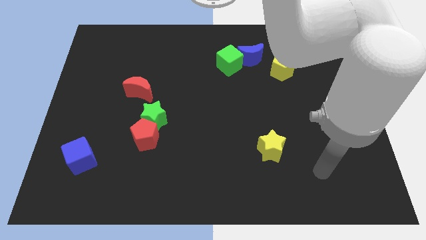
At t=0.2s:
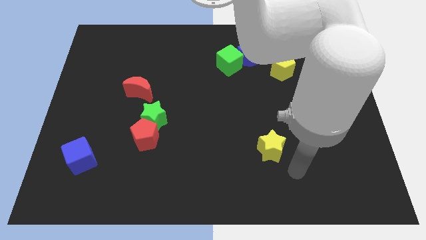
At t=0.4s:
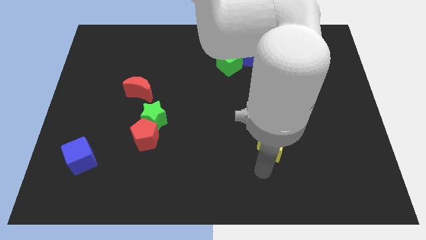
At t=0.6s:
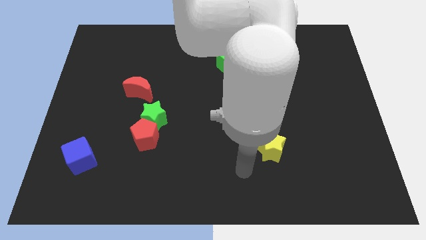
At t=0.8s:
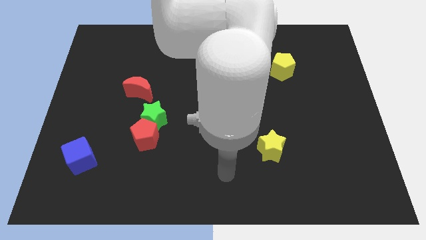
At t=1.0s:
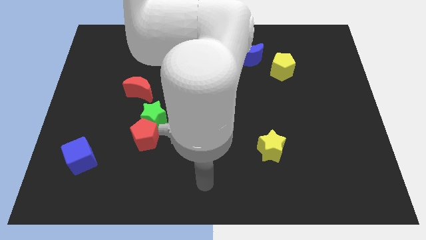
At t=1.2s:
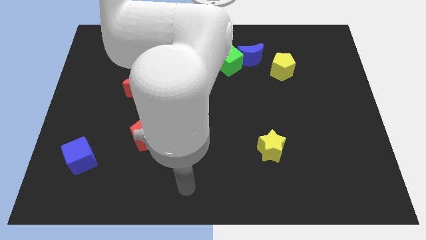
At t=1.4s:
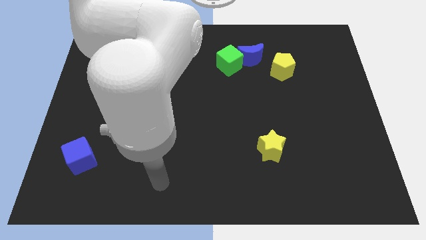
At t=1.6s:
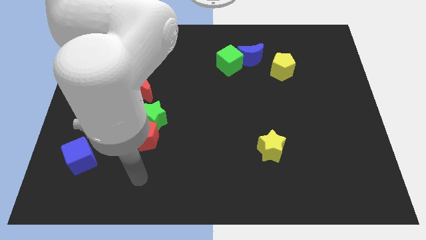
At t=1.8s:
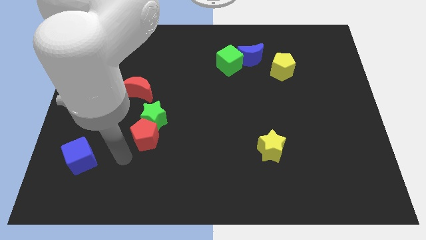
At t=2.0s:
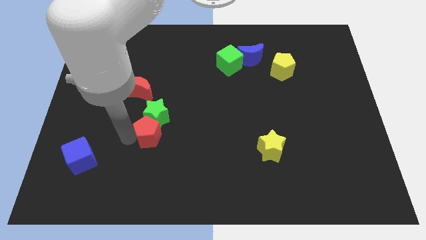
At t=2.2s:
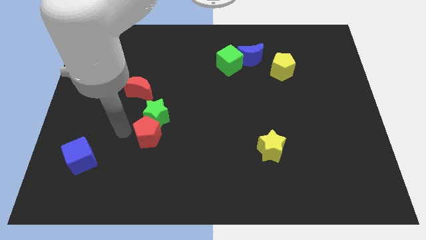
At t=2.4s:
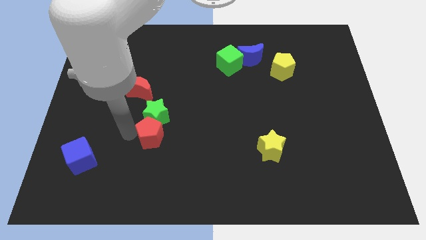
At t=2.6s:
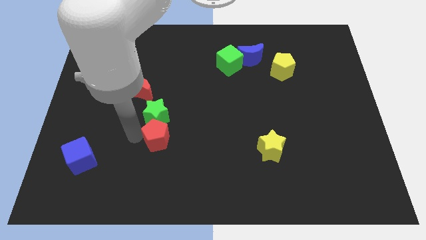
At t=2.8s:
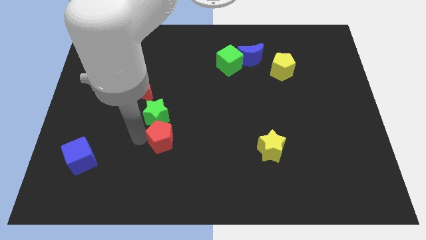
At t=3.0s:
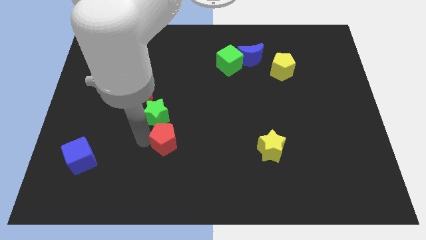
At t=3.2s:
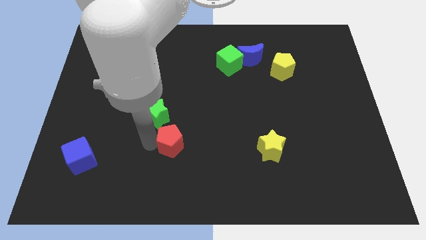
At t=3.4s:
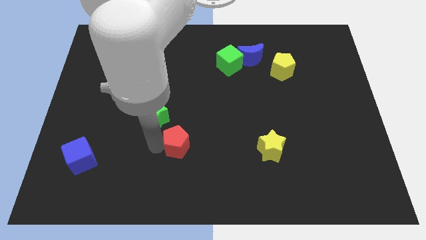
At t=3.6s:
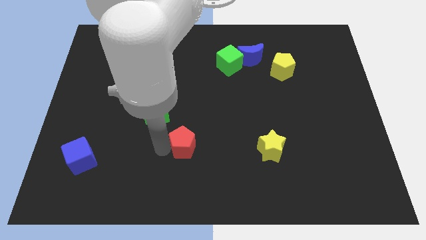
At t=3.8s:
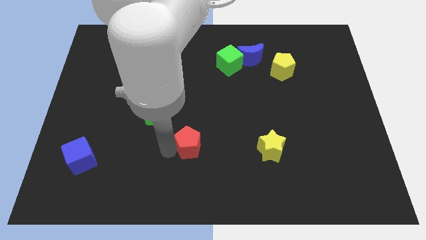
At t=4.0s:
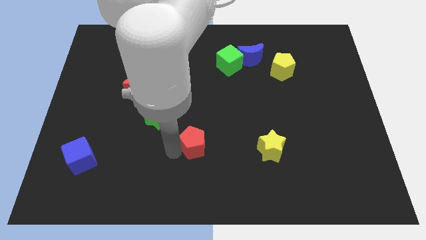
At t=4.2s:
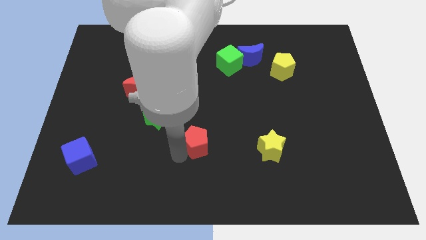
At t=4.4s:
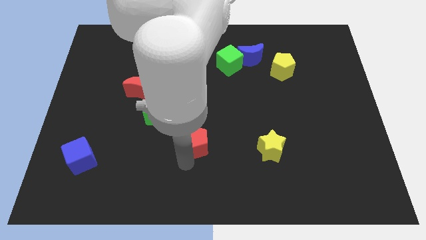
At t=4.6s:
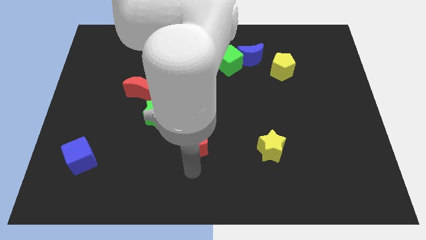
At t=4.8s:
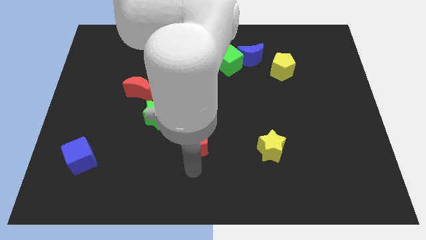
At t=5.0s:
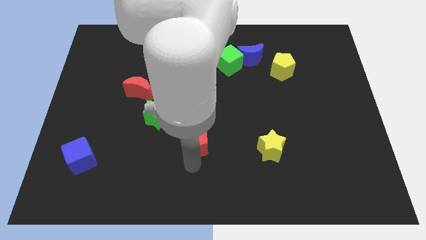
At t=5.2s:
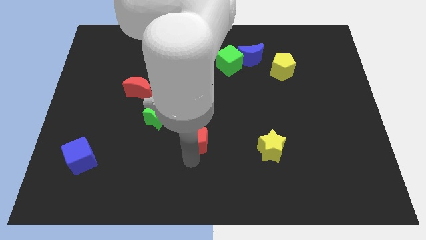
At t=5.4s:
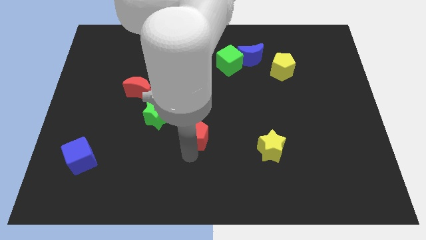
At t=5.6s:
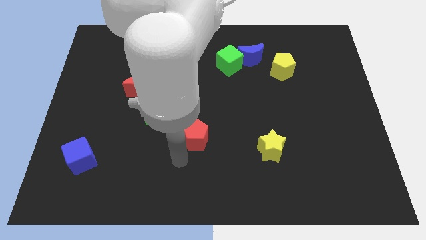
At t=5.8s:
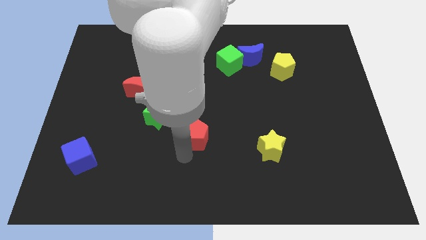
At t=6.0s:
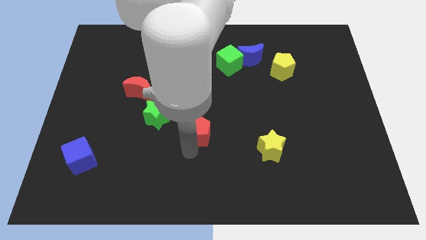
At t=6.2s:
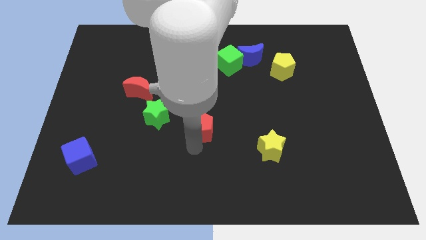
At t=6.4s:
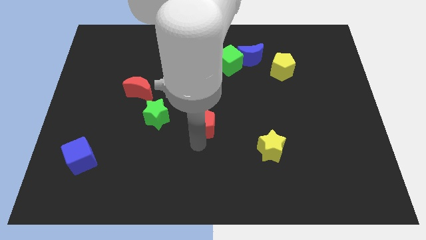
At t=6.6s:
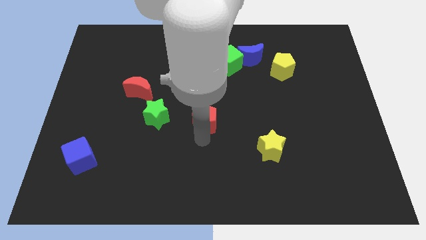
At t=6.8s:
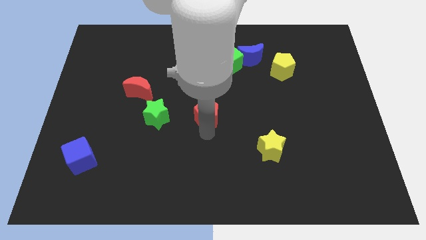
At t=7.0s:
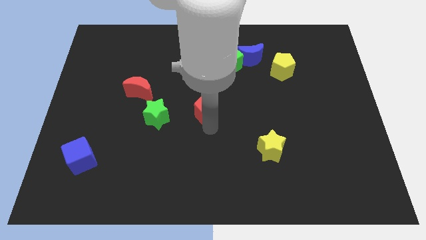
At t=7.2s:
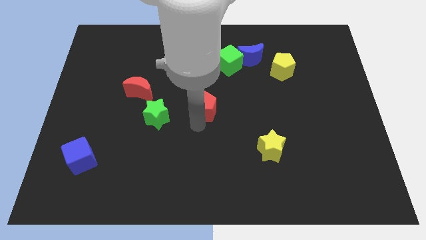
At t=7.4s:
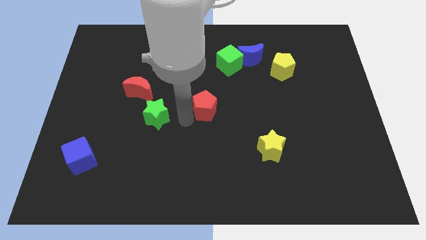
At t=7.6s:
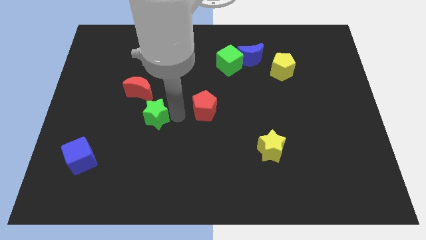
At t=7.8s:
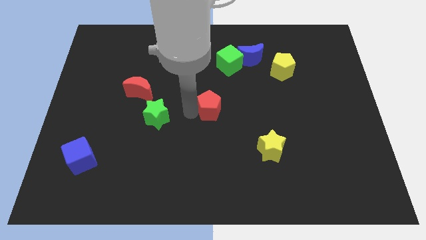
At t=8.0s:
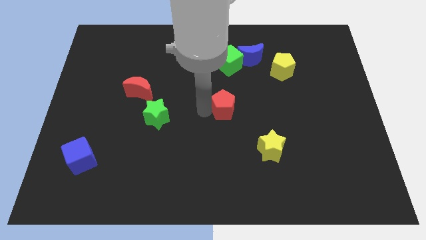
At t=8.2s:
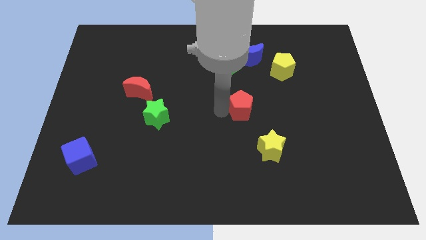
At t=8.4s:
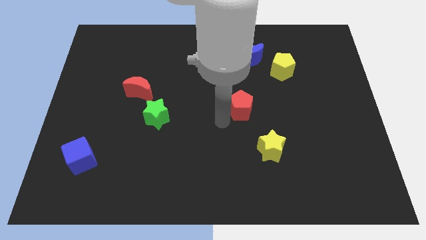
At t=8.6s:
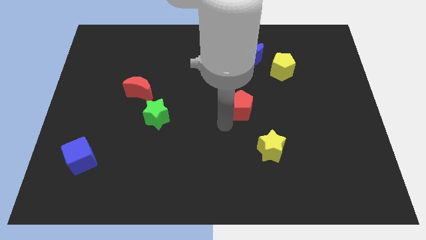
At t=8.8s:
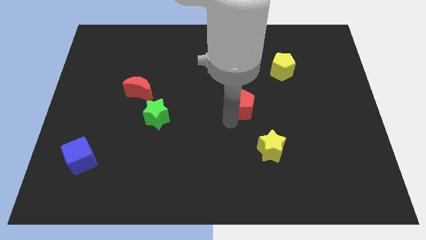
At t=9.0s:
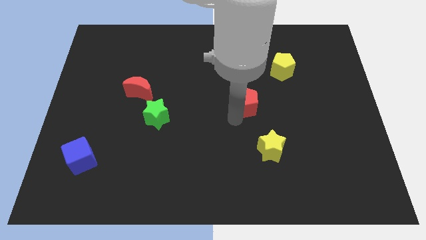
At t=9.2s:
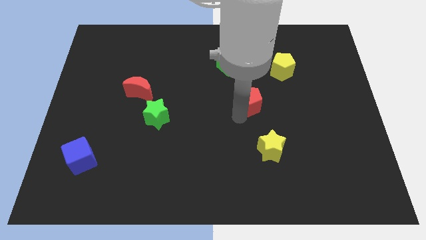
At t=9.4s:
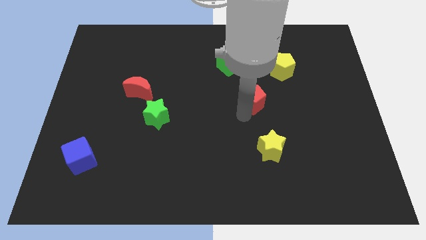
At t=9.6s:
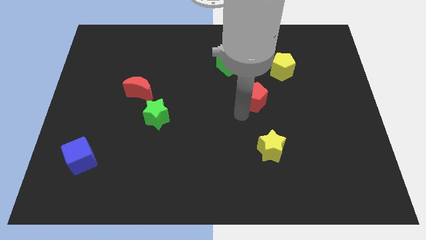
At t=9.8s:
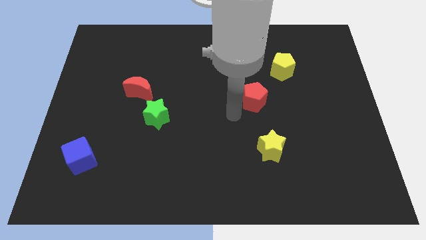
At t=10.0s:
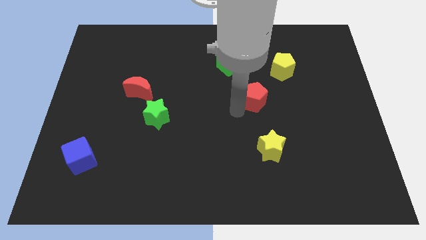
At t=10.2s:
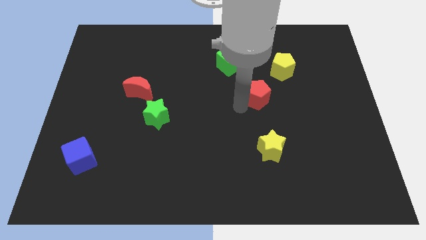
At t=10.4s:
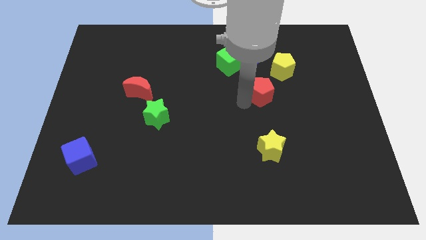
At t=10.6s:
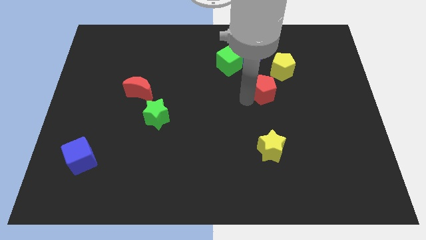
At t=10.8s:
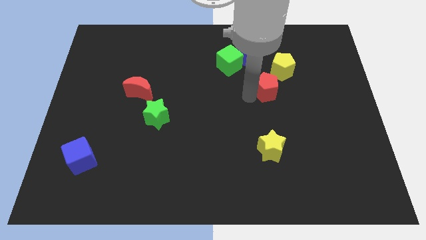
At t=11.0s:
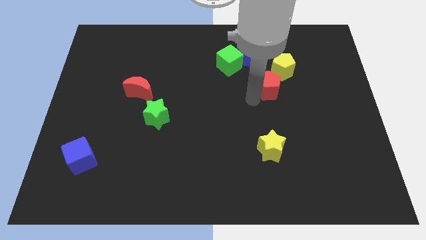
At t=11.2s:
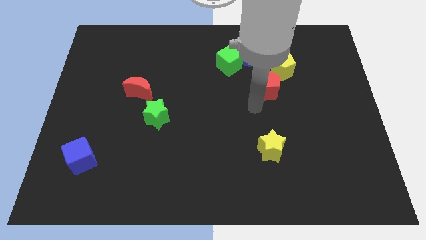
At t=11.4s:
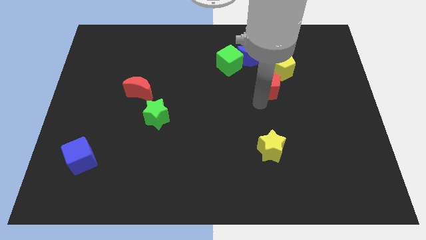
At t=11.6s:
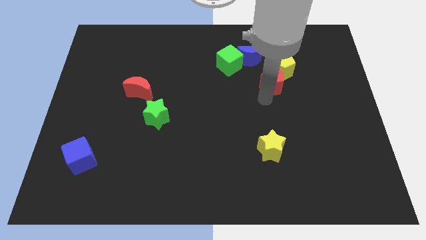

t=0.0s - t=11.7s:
slide the red pentagon close to the yellow pentagon

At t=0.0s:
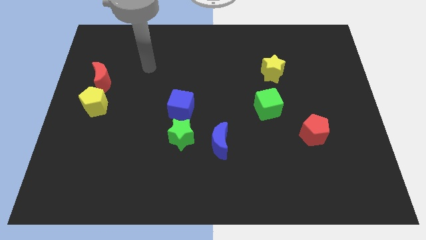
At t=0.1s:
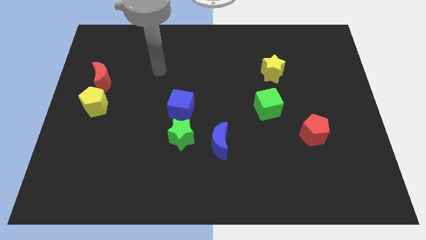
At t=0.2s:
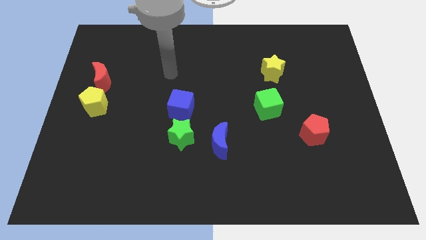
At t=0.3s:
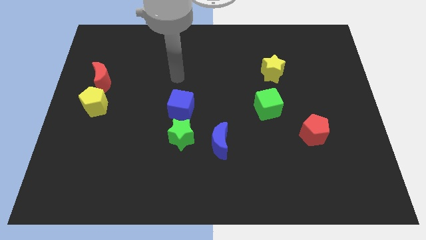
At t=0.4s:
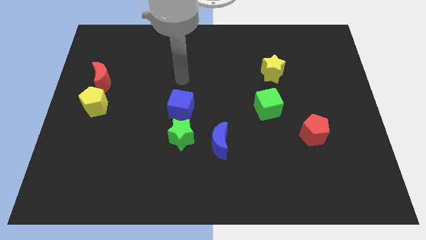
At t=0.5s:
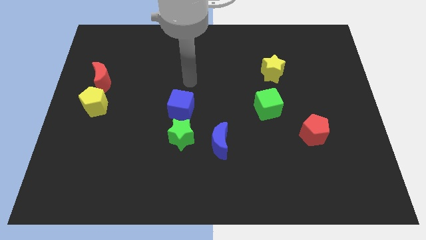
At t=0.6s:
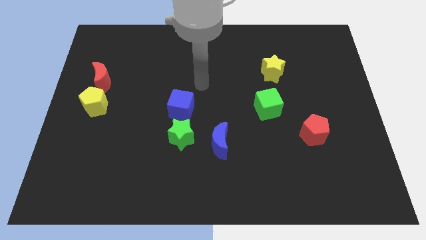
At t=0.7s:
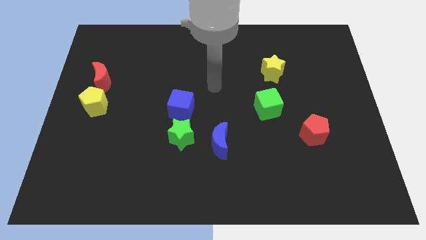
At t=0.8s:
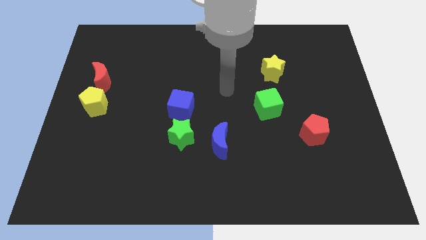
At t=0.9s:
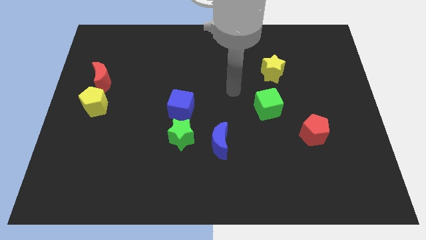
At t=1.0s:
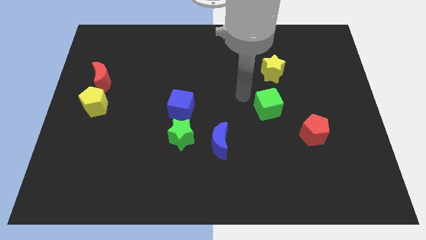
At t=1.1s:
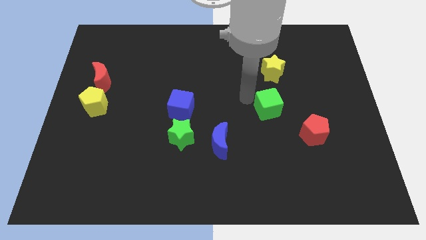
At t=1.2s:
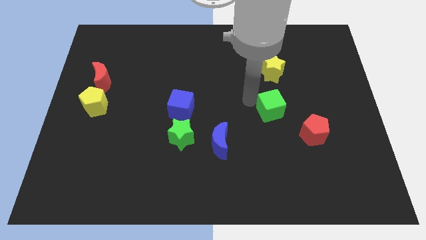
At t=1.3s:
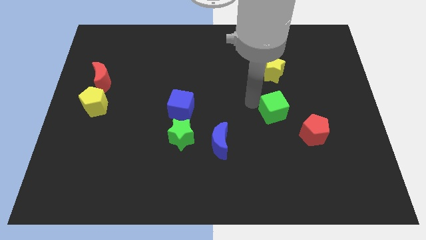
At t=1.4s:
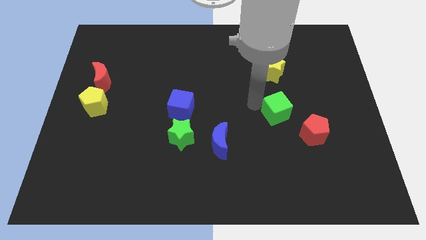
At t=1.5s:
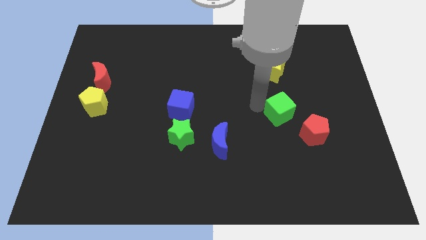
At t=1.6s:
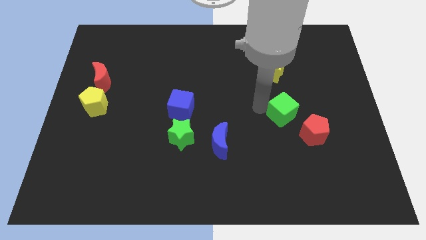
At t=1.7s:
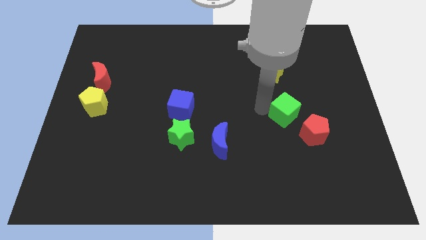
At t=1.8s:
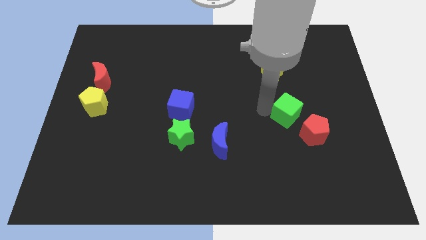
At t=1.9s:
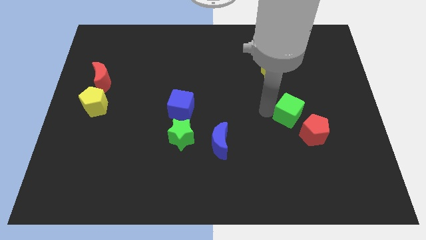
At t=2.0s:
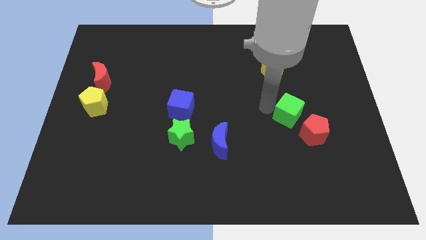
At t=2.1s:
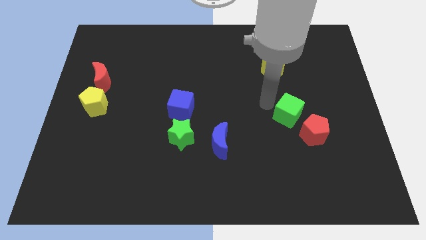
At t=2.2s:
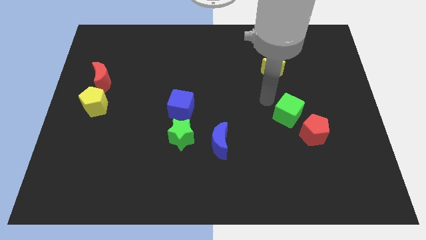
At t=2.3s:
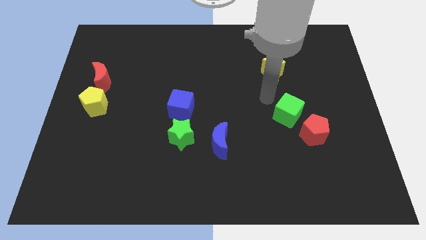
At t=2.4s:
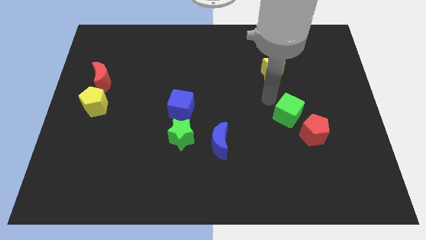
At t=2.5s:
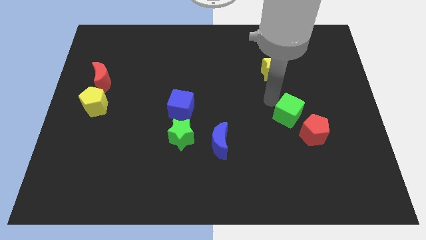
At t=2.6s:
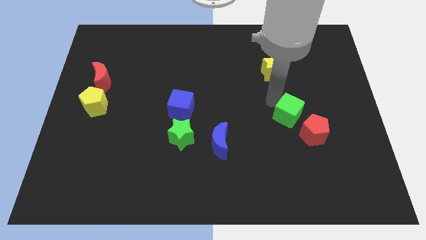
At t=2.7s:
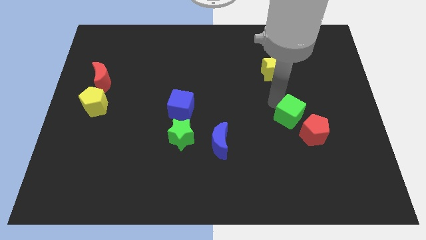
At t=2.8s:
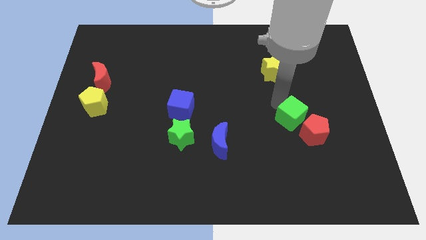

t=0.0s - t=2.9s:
put the green cube next to the red pentagon
